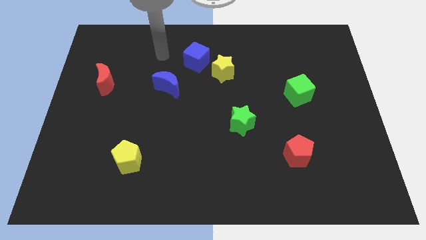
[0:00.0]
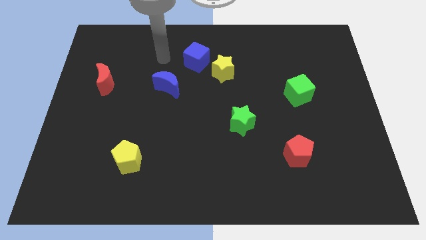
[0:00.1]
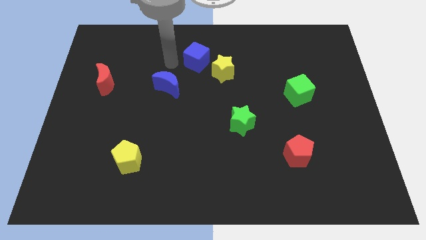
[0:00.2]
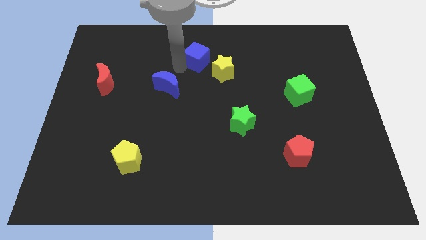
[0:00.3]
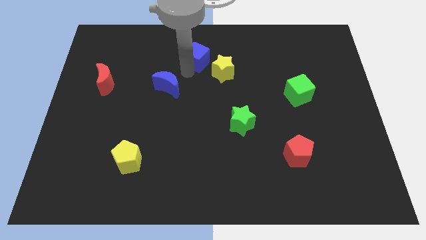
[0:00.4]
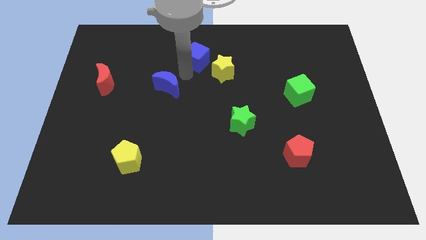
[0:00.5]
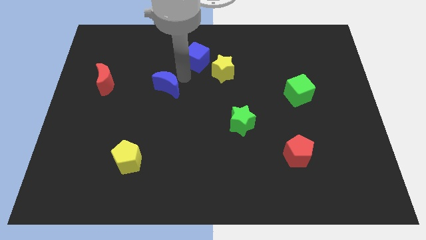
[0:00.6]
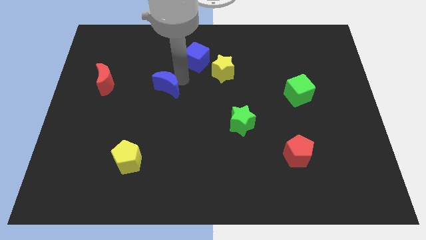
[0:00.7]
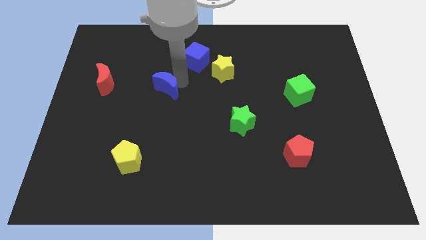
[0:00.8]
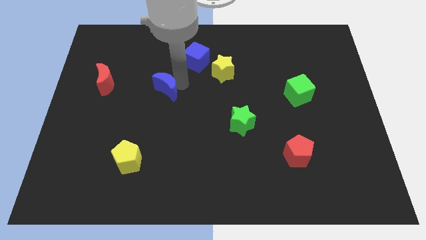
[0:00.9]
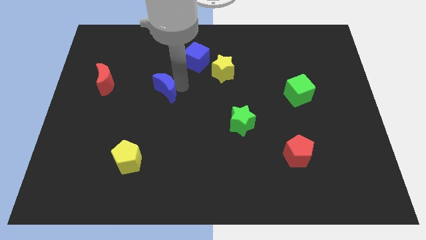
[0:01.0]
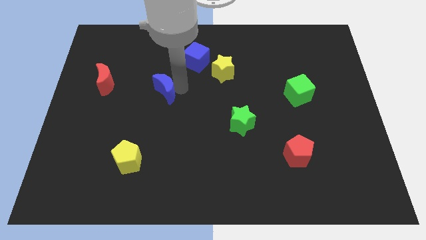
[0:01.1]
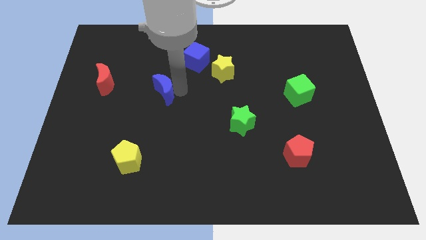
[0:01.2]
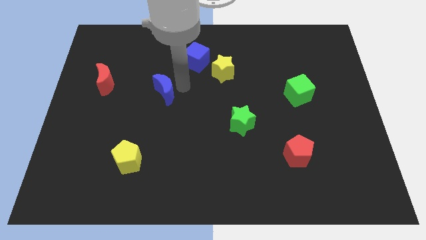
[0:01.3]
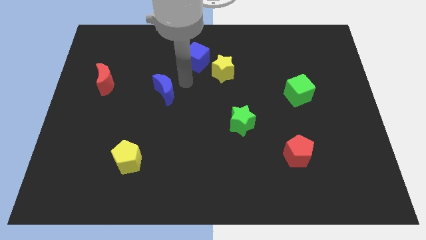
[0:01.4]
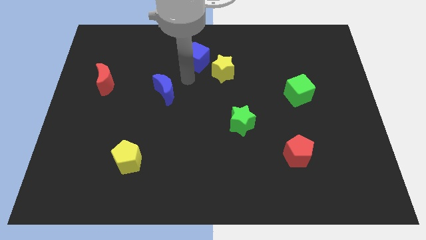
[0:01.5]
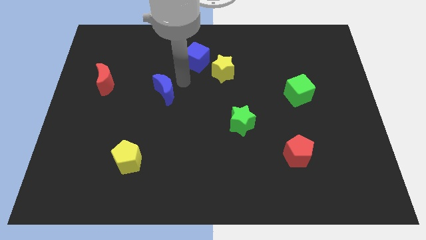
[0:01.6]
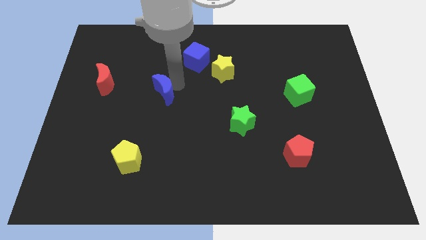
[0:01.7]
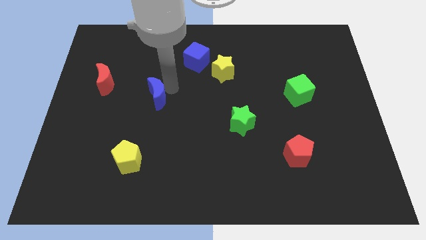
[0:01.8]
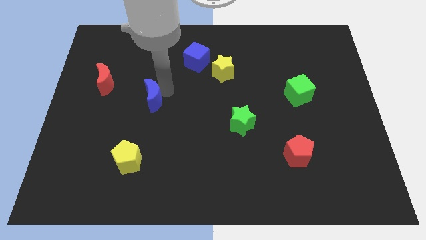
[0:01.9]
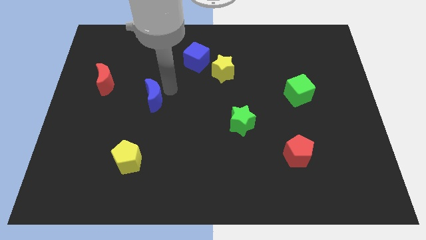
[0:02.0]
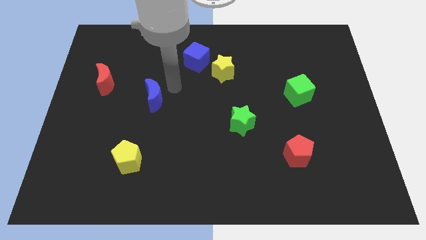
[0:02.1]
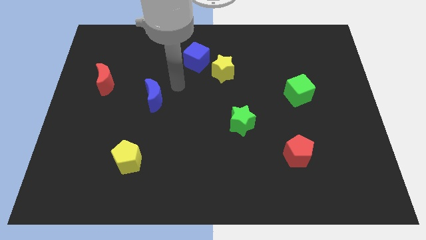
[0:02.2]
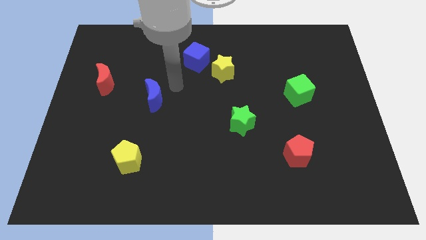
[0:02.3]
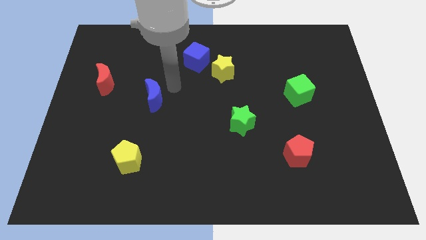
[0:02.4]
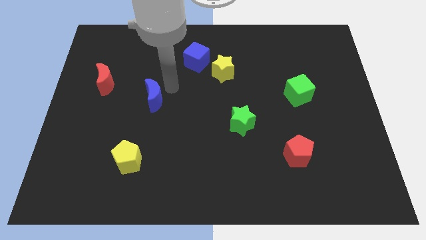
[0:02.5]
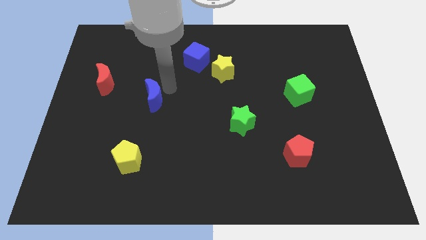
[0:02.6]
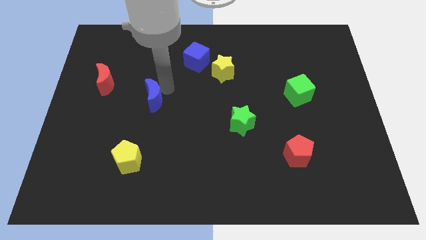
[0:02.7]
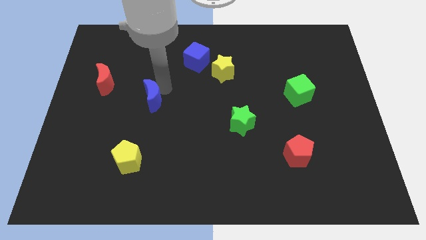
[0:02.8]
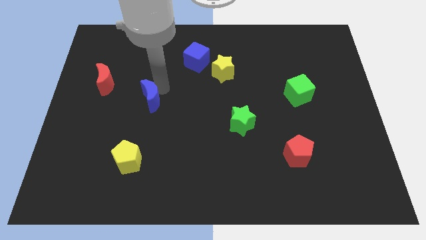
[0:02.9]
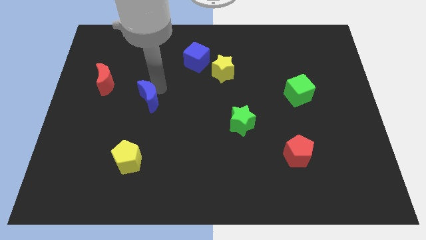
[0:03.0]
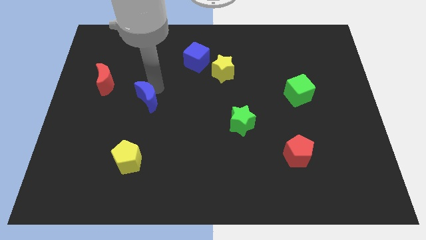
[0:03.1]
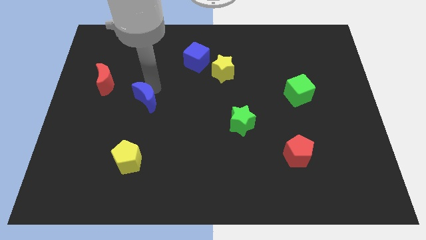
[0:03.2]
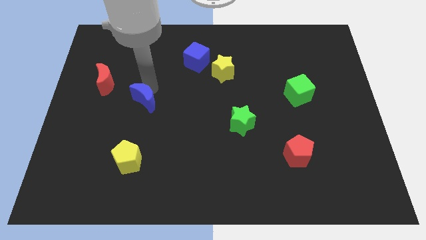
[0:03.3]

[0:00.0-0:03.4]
slide the blue moon somewhat down and to the left

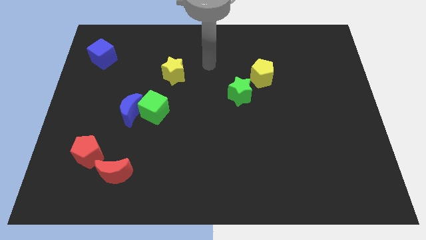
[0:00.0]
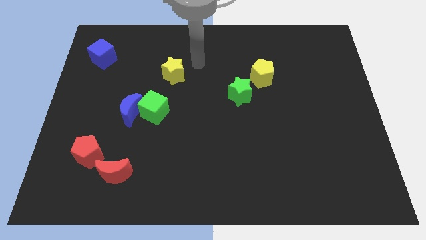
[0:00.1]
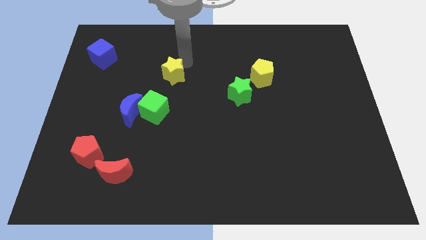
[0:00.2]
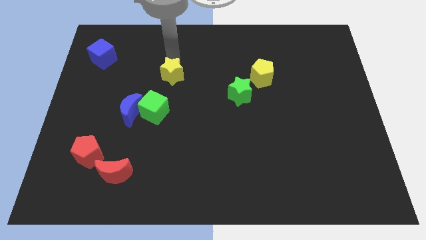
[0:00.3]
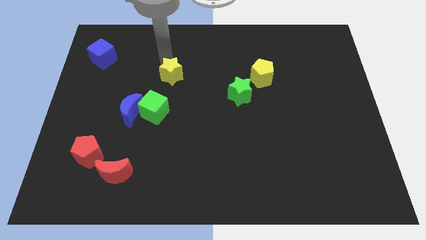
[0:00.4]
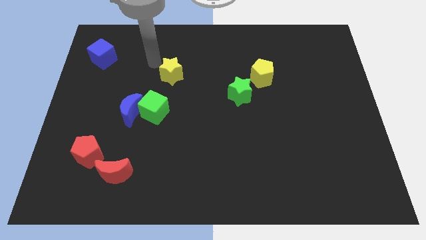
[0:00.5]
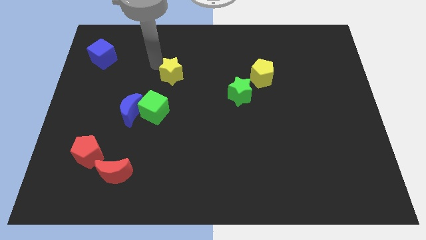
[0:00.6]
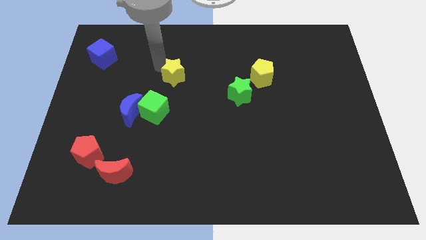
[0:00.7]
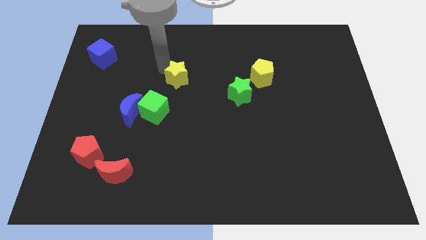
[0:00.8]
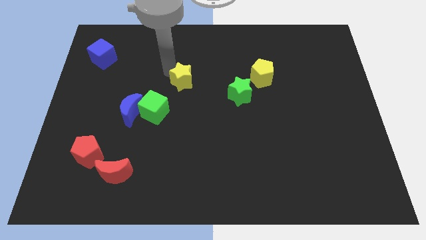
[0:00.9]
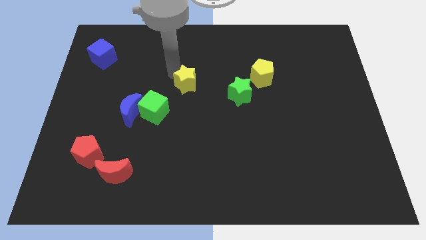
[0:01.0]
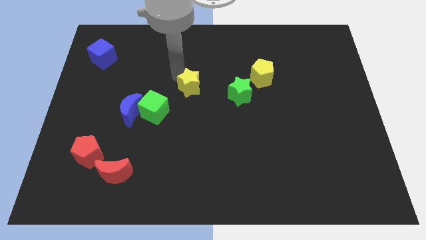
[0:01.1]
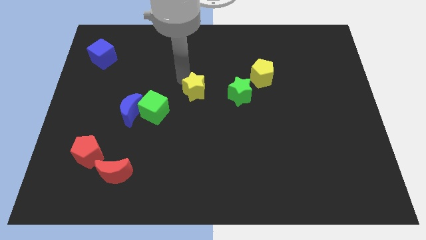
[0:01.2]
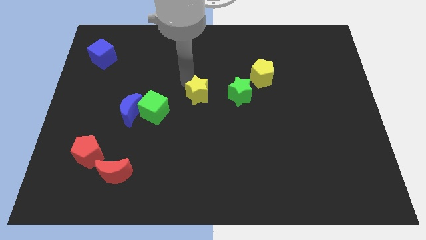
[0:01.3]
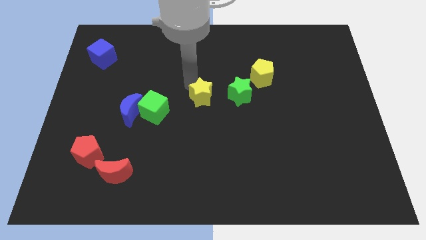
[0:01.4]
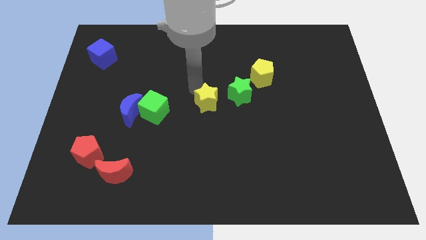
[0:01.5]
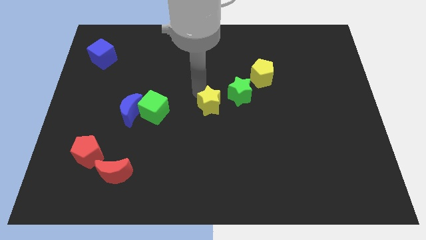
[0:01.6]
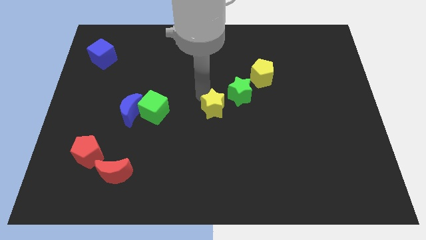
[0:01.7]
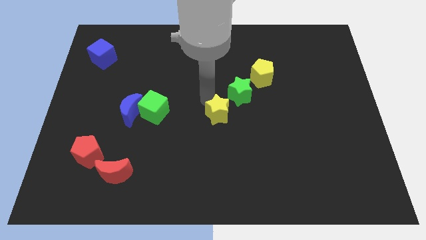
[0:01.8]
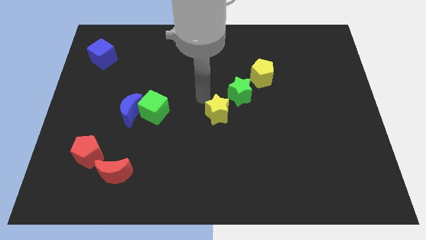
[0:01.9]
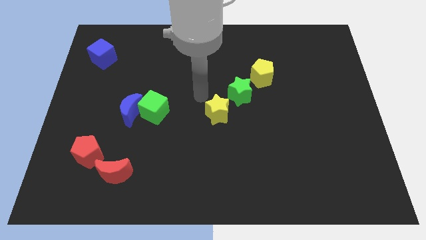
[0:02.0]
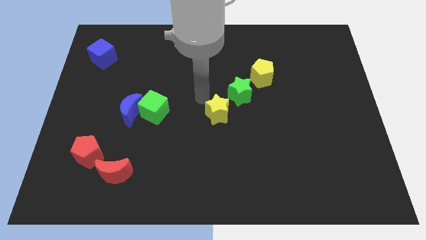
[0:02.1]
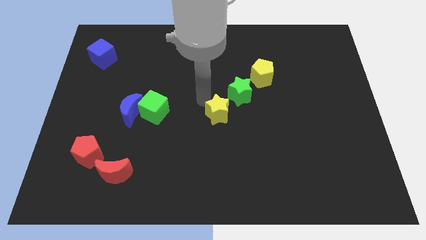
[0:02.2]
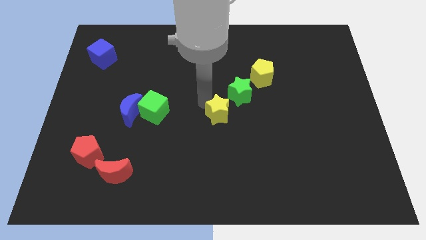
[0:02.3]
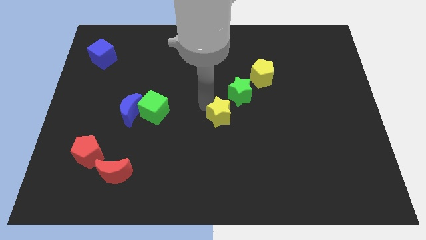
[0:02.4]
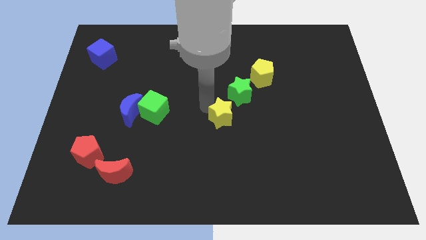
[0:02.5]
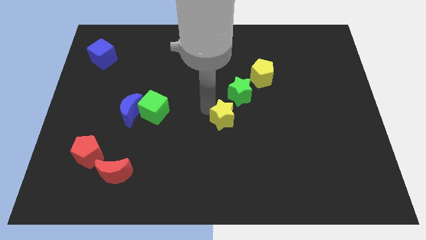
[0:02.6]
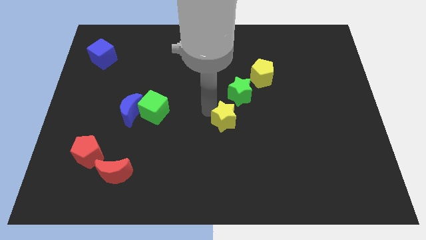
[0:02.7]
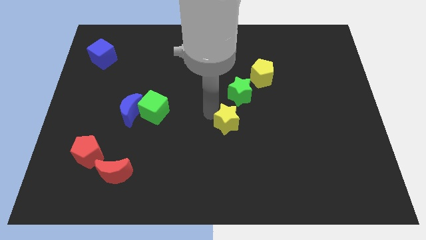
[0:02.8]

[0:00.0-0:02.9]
move the yellow star downwards and to the right diagonally

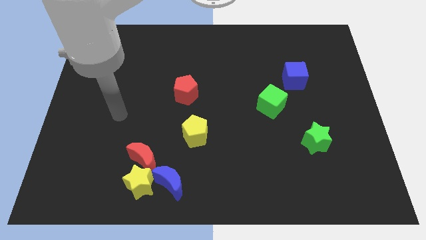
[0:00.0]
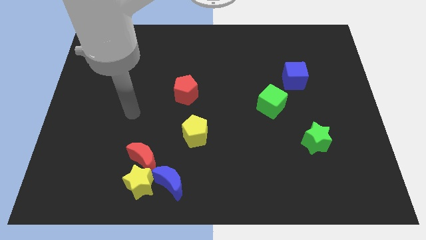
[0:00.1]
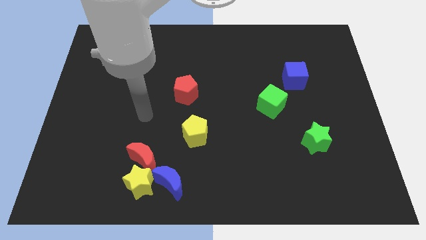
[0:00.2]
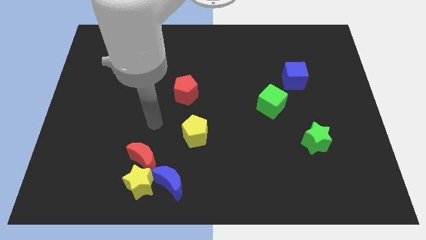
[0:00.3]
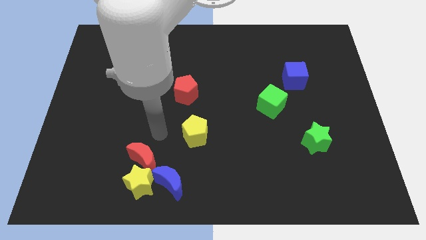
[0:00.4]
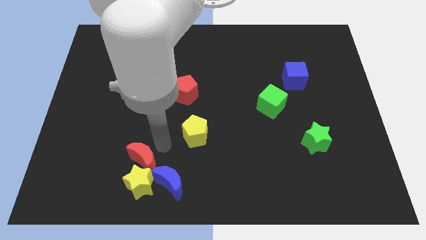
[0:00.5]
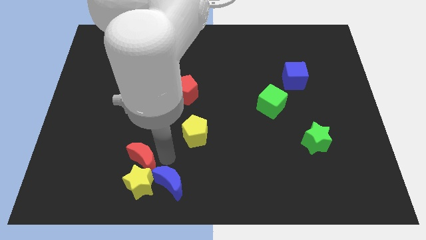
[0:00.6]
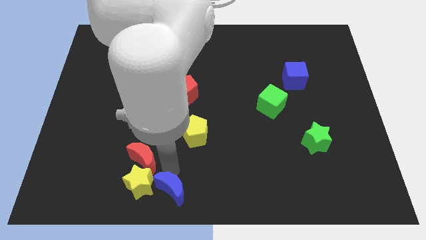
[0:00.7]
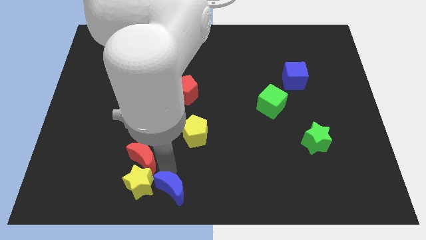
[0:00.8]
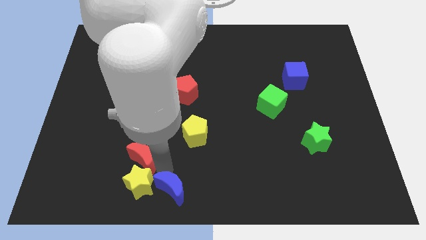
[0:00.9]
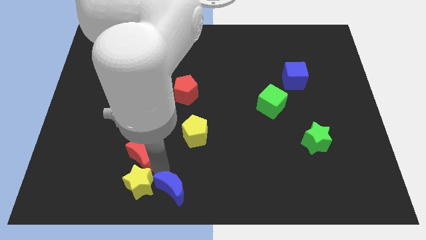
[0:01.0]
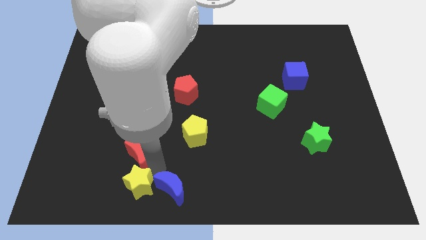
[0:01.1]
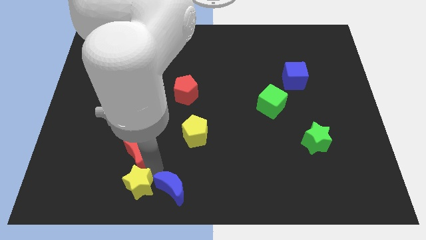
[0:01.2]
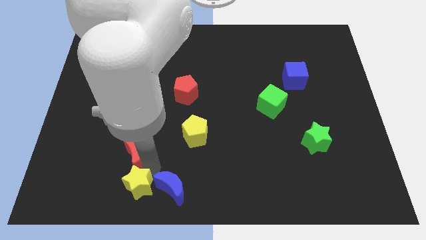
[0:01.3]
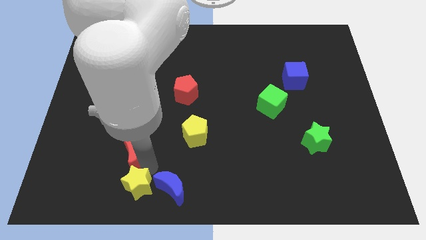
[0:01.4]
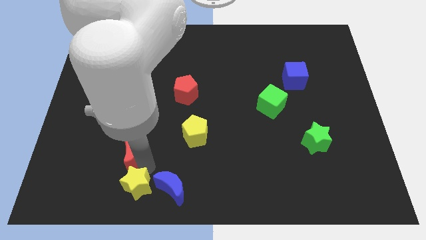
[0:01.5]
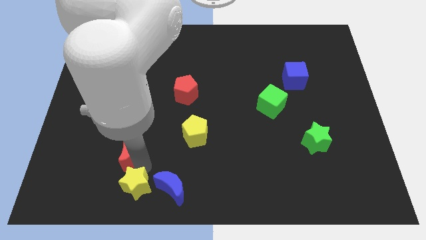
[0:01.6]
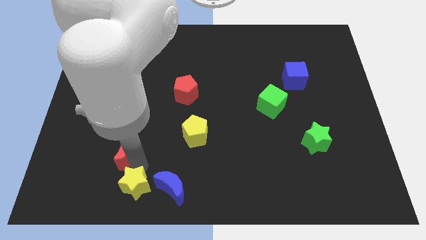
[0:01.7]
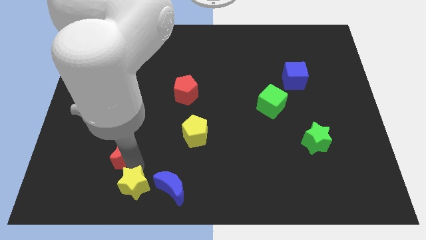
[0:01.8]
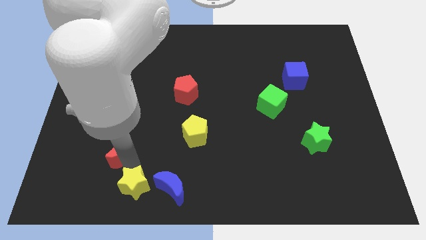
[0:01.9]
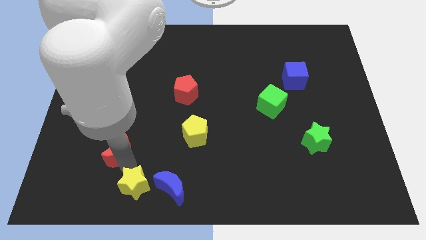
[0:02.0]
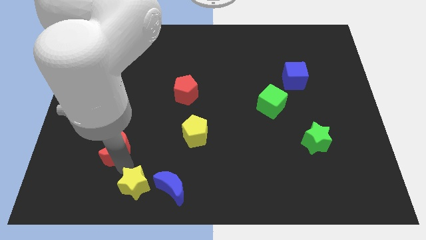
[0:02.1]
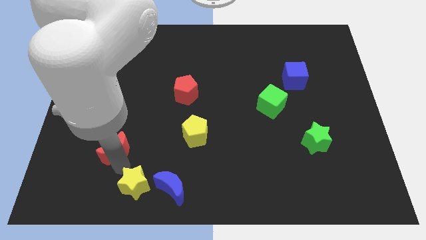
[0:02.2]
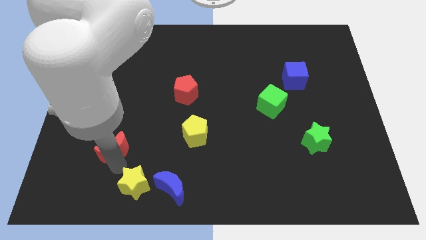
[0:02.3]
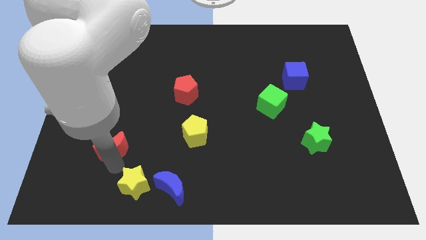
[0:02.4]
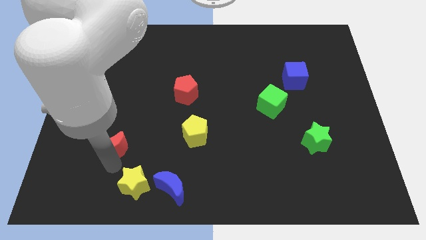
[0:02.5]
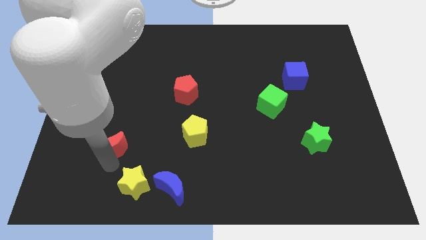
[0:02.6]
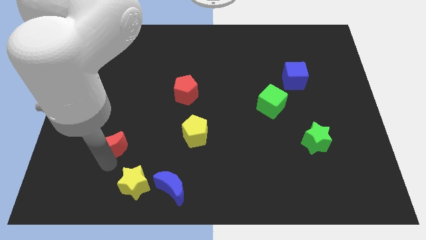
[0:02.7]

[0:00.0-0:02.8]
move the red moon up and to the left a little bit
